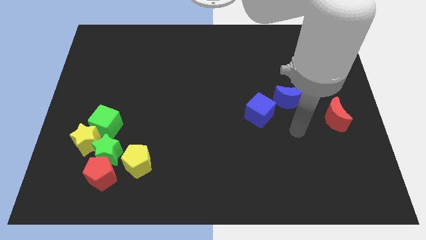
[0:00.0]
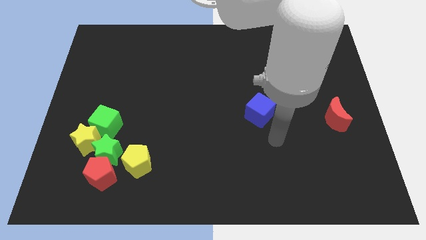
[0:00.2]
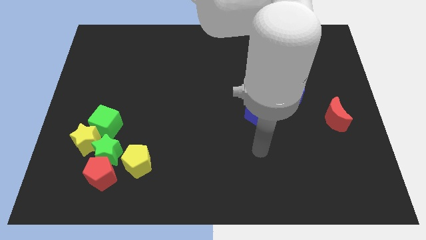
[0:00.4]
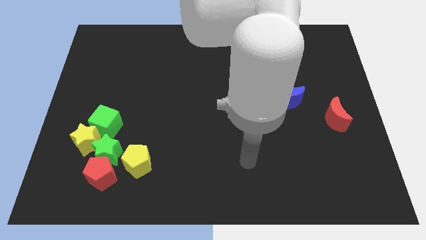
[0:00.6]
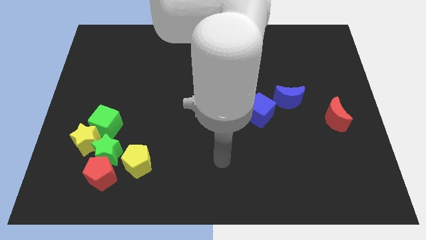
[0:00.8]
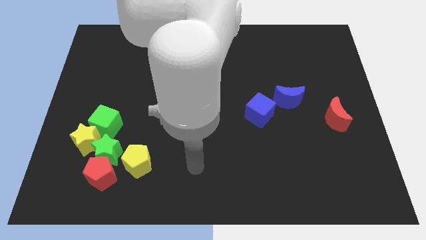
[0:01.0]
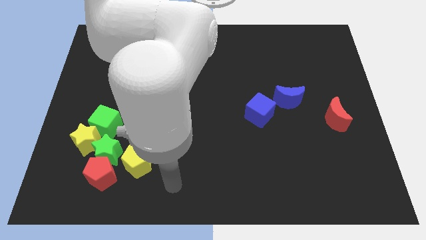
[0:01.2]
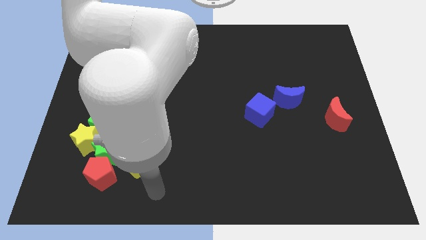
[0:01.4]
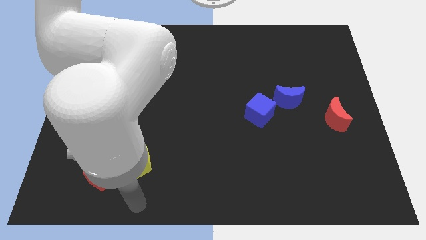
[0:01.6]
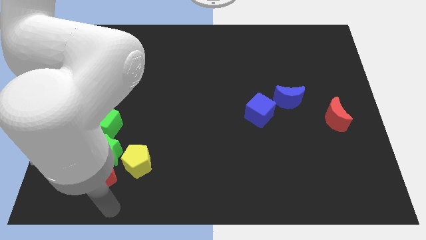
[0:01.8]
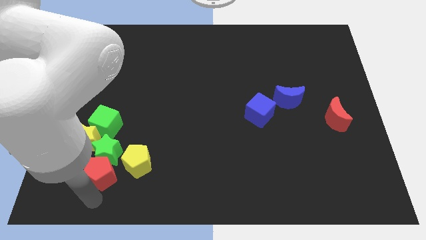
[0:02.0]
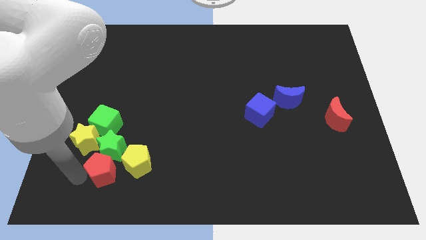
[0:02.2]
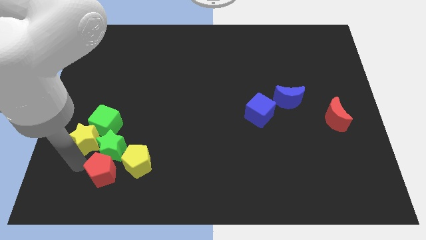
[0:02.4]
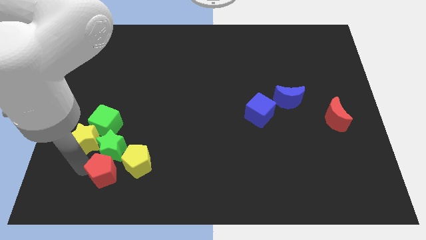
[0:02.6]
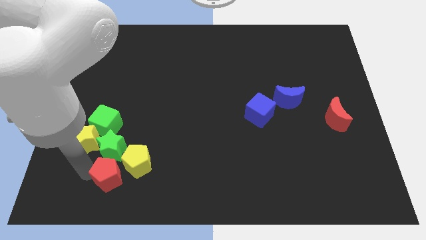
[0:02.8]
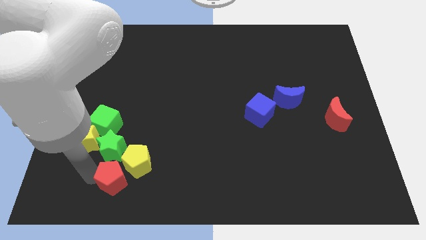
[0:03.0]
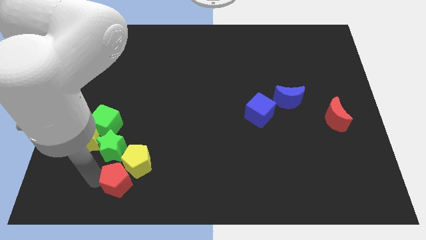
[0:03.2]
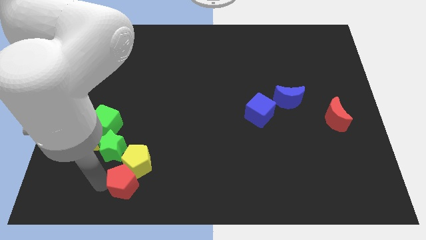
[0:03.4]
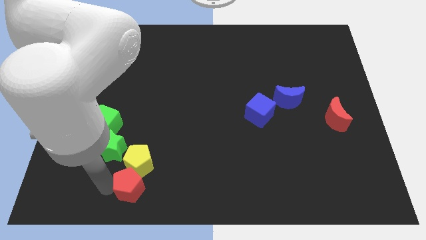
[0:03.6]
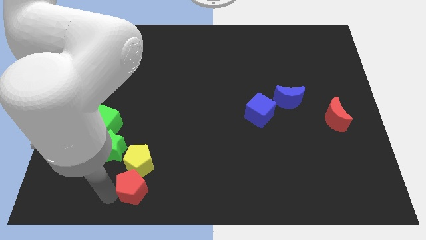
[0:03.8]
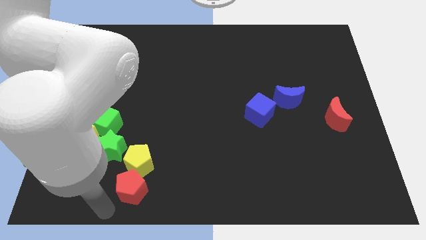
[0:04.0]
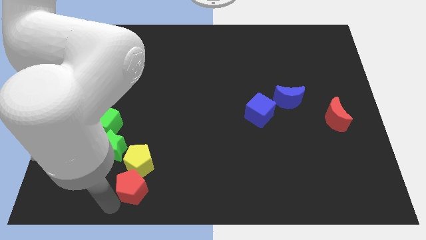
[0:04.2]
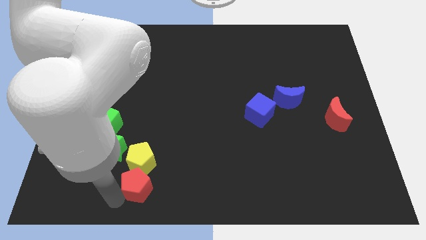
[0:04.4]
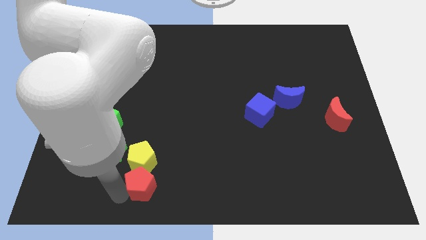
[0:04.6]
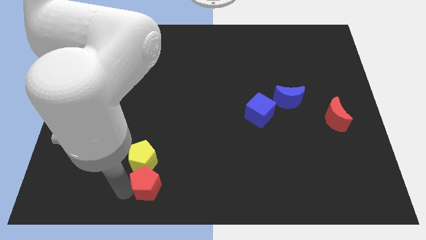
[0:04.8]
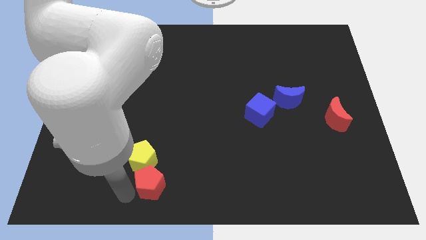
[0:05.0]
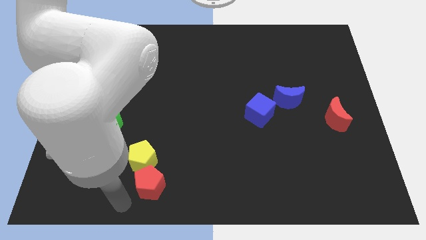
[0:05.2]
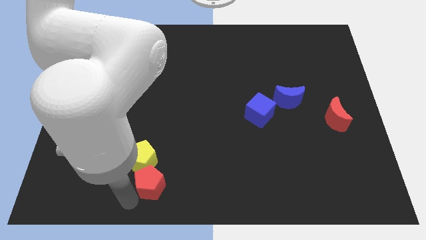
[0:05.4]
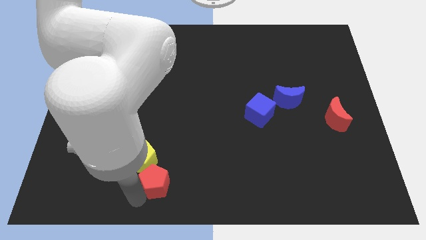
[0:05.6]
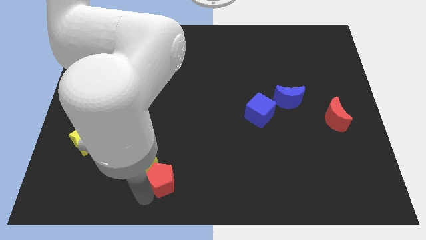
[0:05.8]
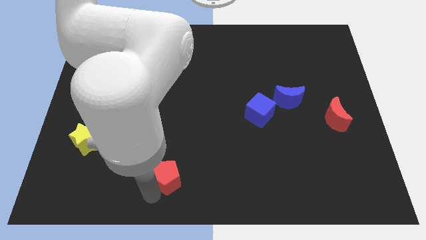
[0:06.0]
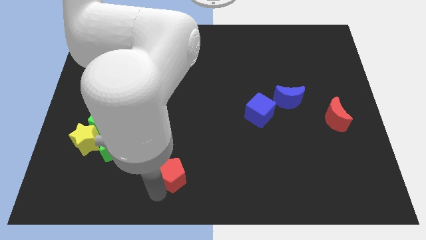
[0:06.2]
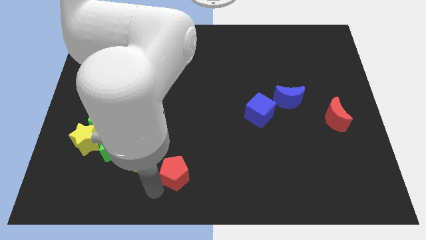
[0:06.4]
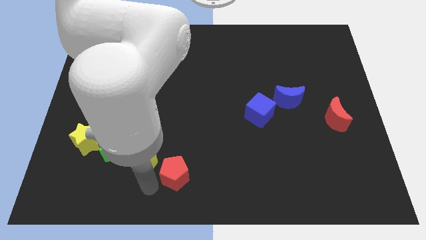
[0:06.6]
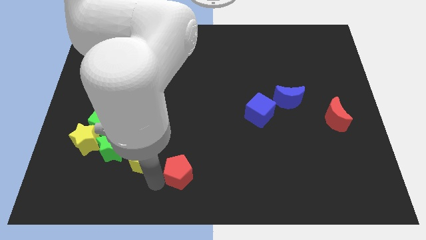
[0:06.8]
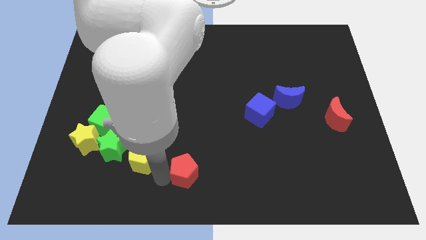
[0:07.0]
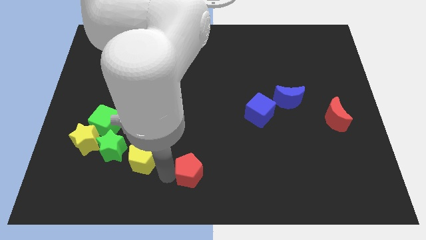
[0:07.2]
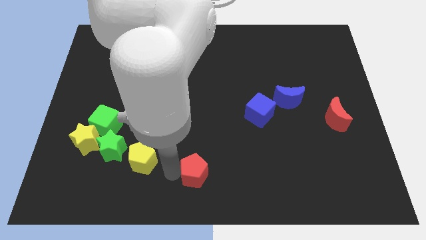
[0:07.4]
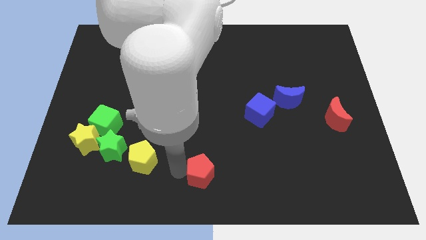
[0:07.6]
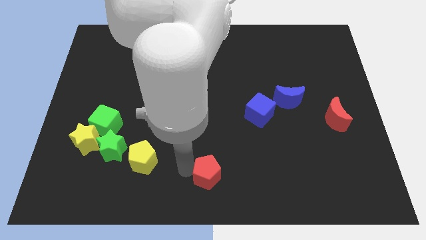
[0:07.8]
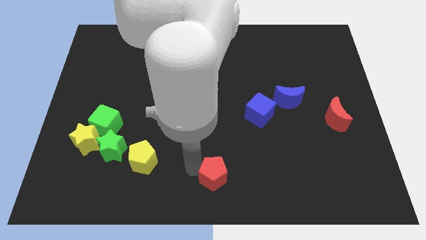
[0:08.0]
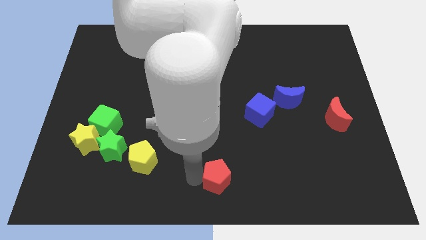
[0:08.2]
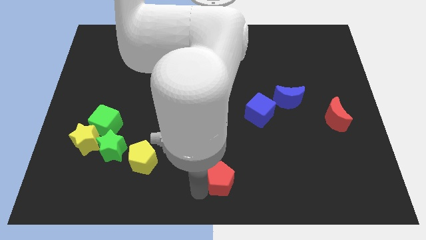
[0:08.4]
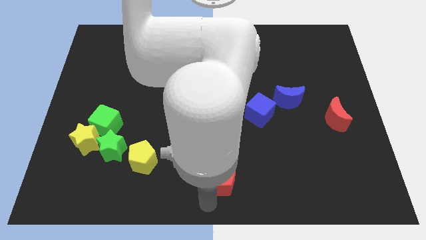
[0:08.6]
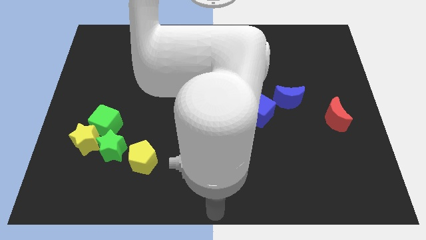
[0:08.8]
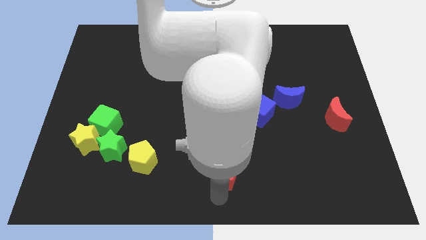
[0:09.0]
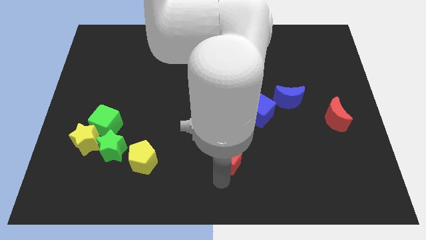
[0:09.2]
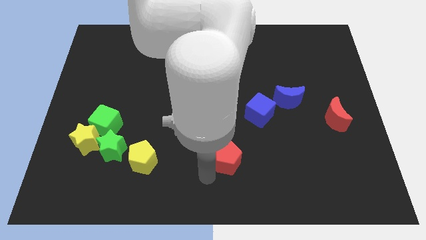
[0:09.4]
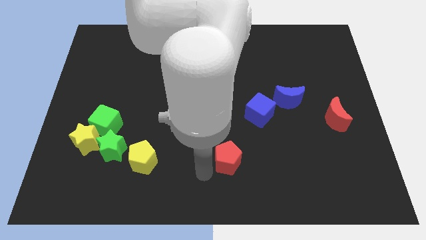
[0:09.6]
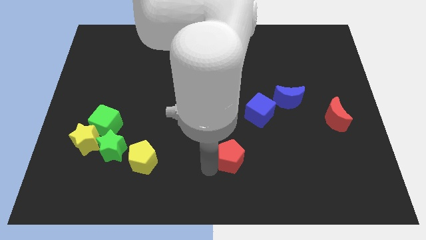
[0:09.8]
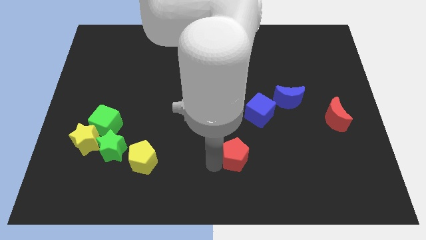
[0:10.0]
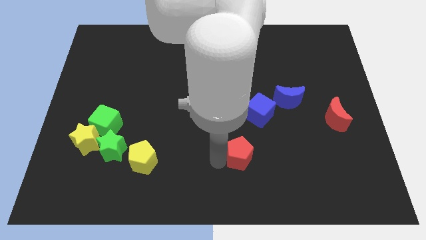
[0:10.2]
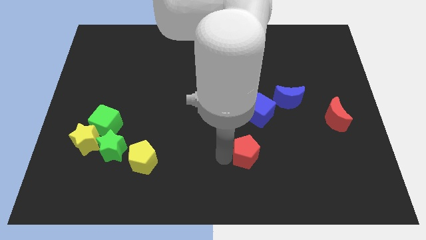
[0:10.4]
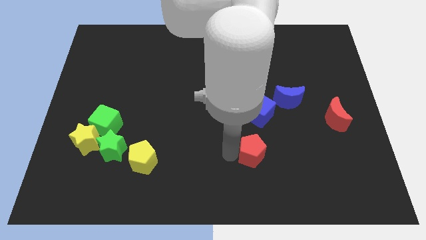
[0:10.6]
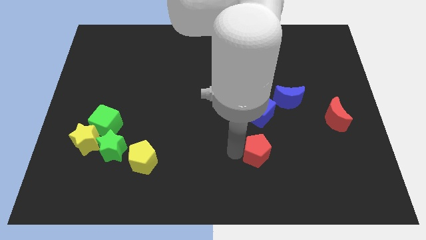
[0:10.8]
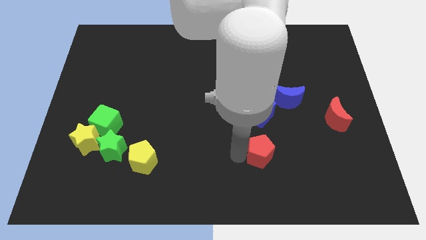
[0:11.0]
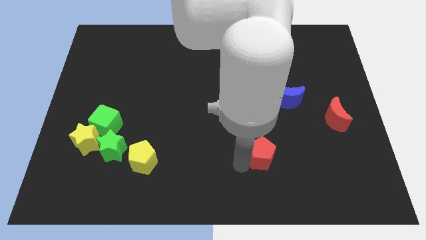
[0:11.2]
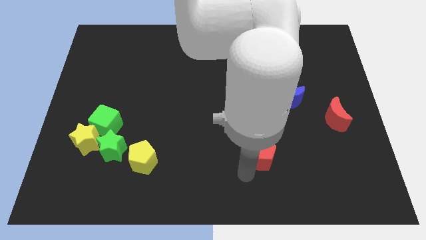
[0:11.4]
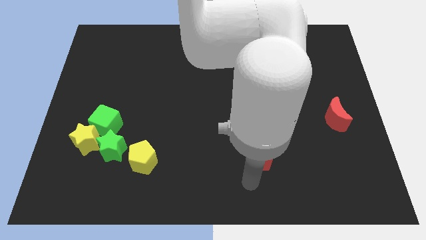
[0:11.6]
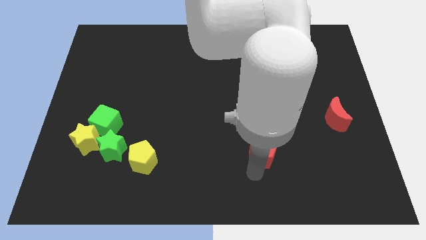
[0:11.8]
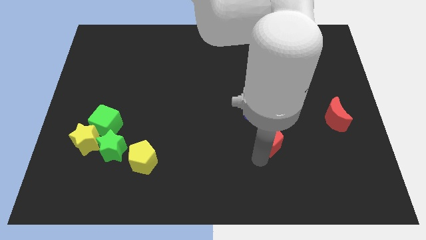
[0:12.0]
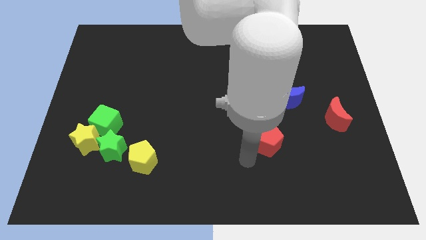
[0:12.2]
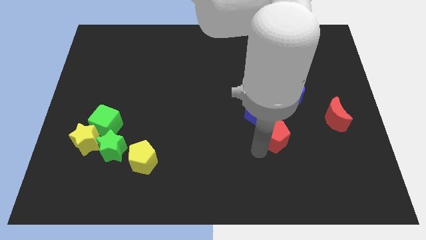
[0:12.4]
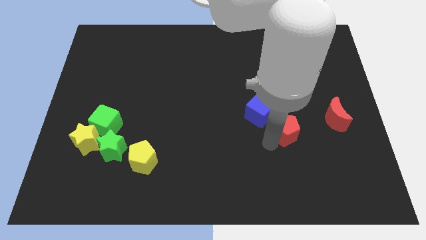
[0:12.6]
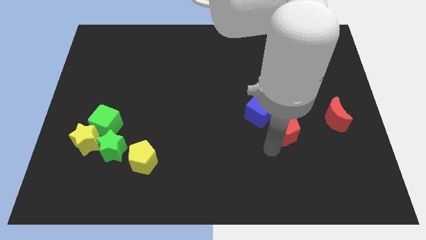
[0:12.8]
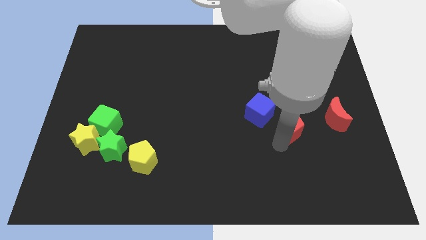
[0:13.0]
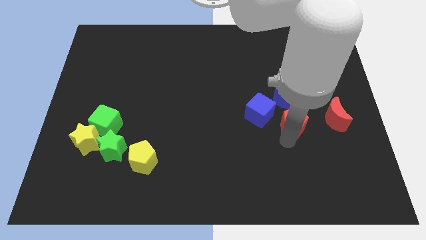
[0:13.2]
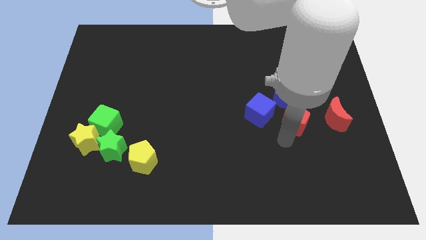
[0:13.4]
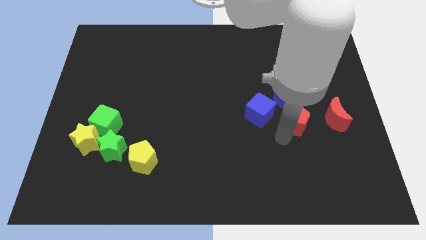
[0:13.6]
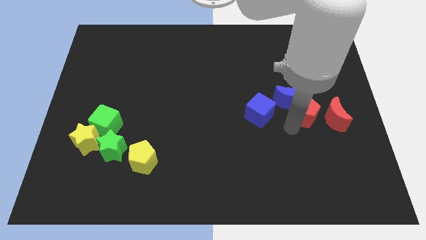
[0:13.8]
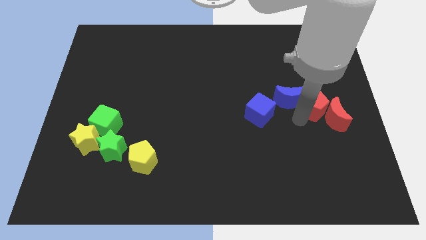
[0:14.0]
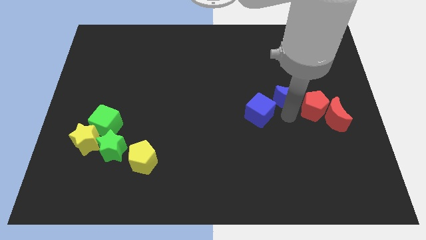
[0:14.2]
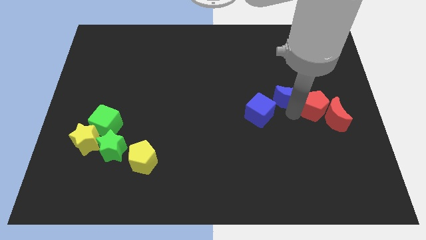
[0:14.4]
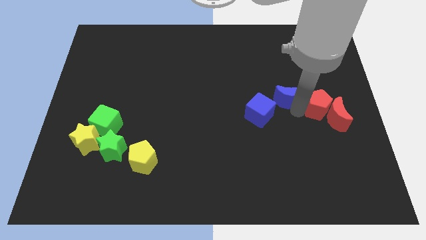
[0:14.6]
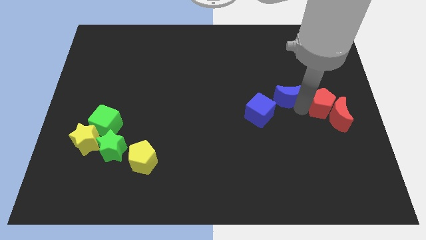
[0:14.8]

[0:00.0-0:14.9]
push the red pentagon to the right side
